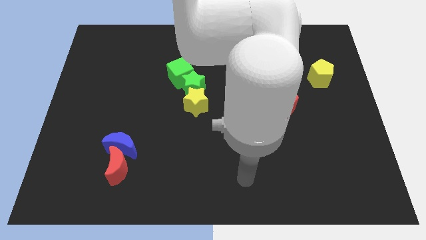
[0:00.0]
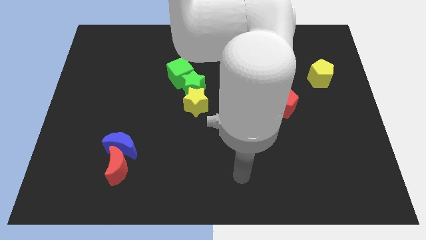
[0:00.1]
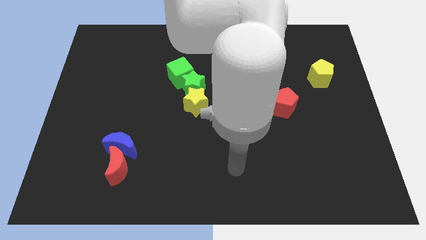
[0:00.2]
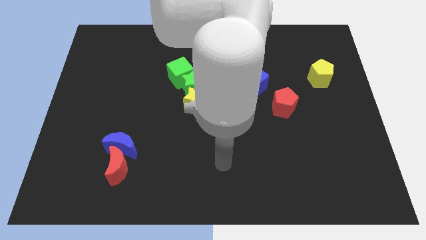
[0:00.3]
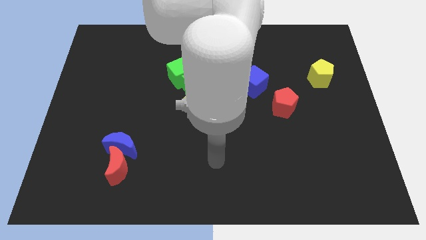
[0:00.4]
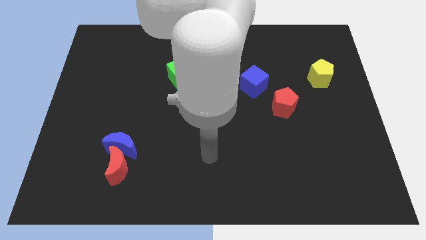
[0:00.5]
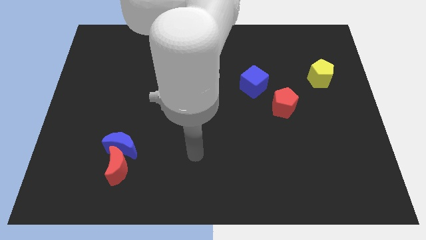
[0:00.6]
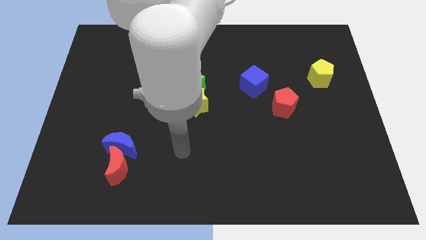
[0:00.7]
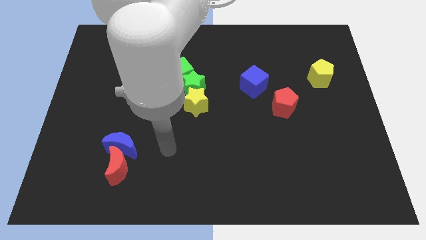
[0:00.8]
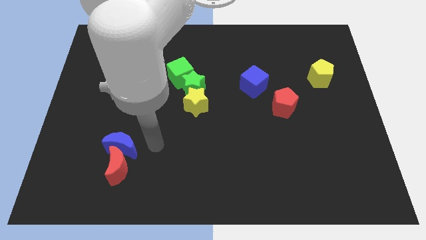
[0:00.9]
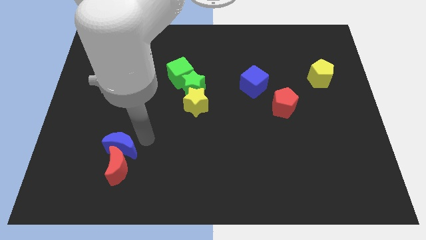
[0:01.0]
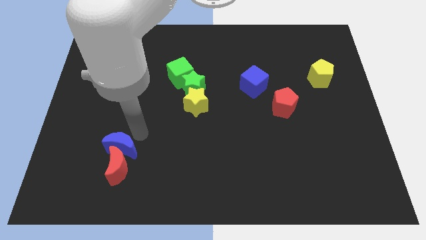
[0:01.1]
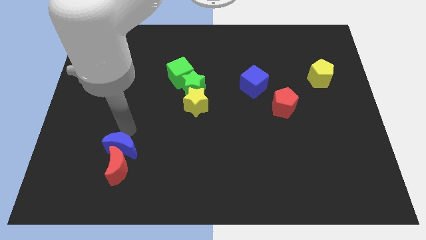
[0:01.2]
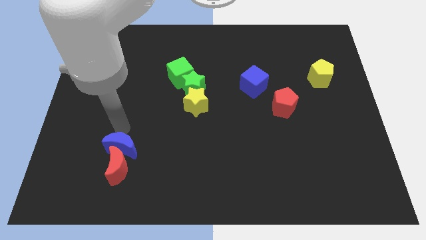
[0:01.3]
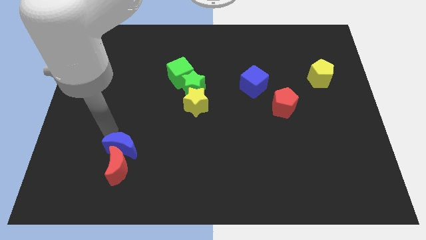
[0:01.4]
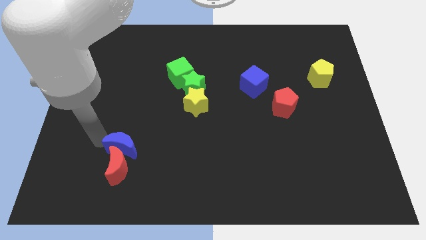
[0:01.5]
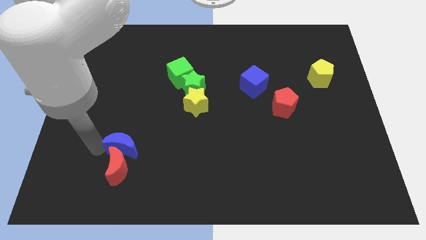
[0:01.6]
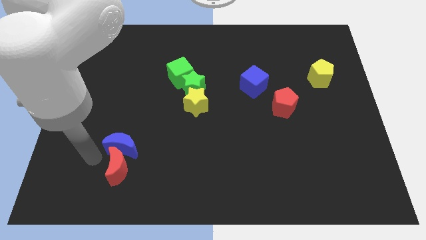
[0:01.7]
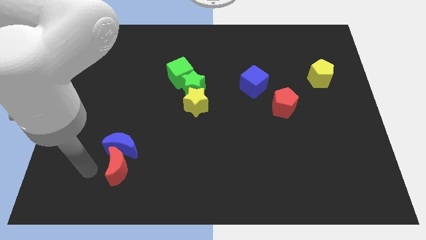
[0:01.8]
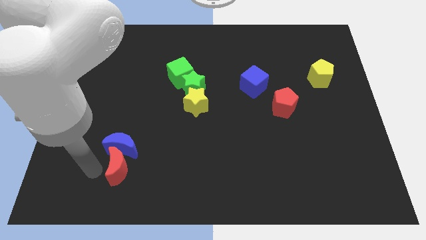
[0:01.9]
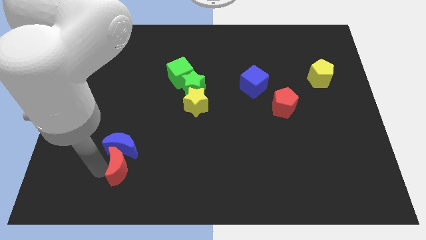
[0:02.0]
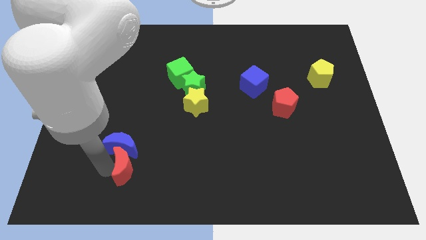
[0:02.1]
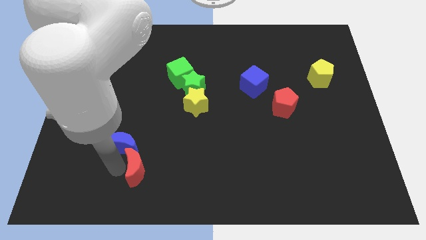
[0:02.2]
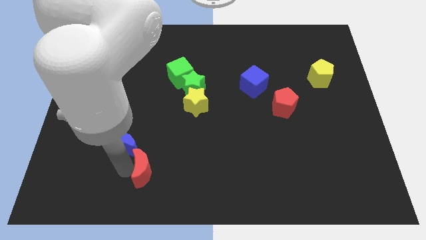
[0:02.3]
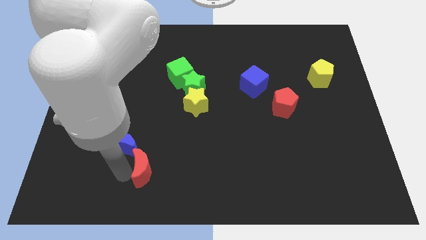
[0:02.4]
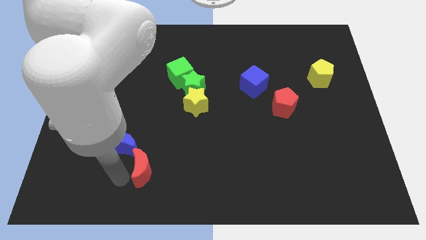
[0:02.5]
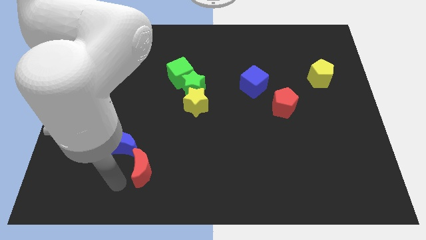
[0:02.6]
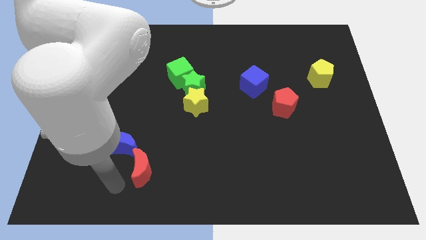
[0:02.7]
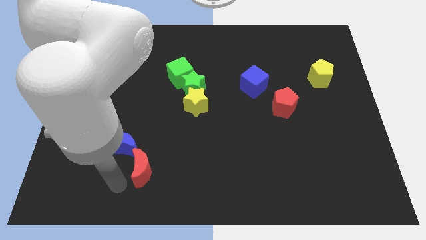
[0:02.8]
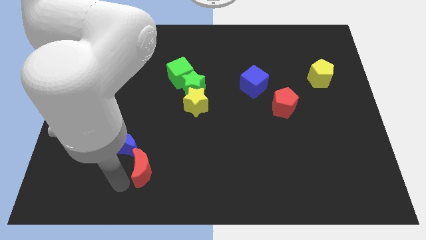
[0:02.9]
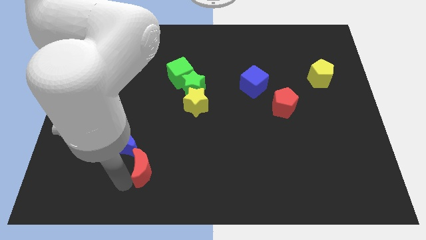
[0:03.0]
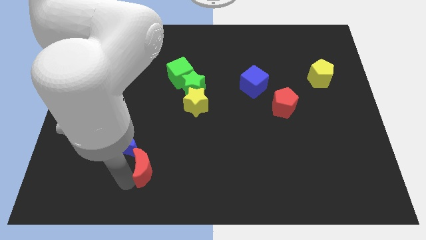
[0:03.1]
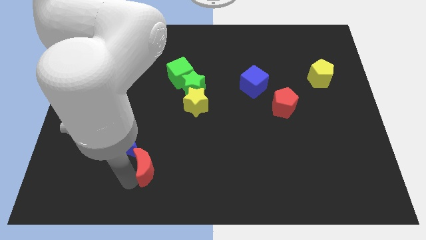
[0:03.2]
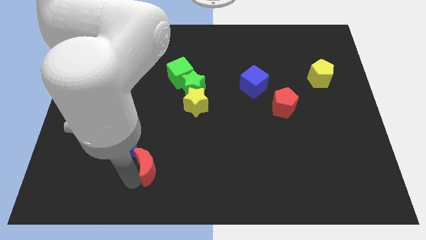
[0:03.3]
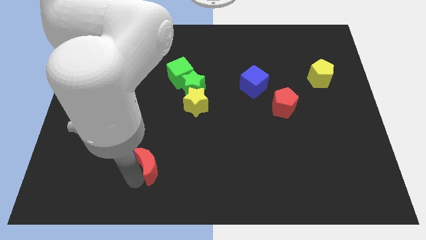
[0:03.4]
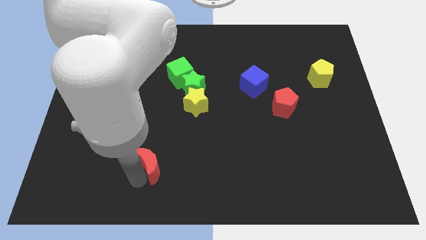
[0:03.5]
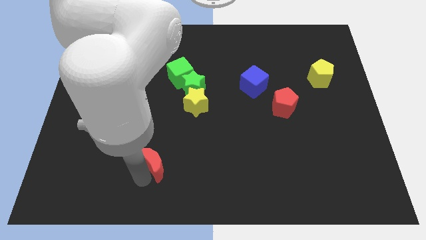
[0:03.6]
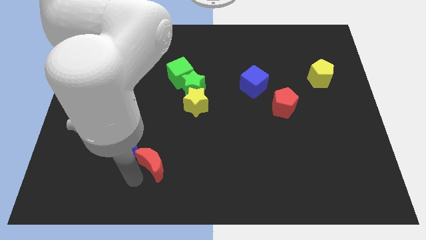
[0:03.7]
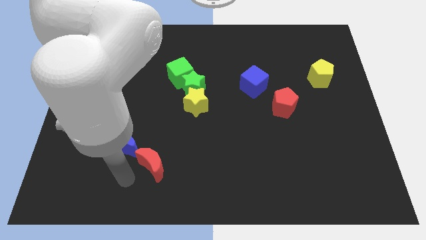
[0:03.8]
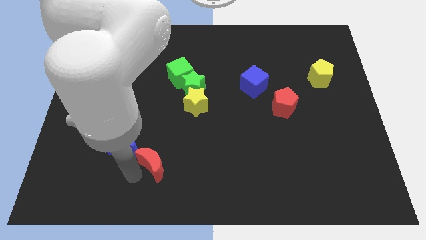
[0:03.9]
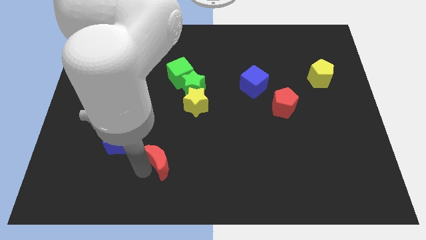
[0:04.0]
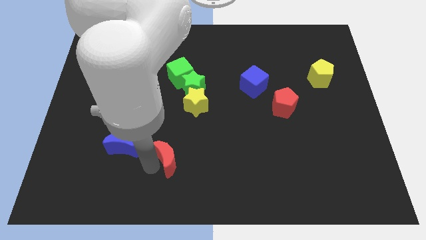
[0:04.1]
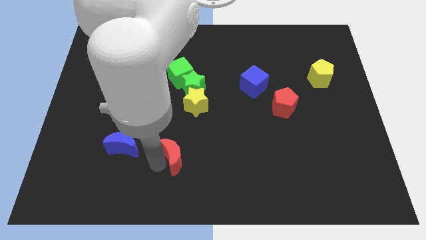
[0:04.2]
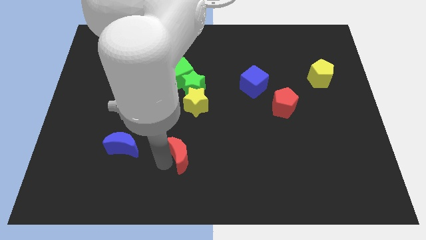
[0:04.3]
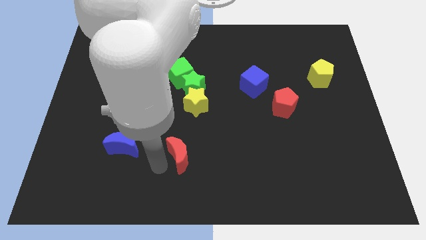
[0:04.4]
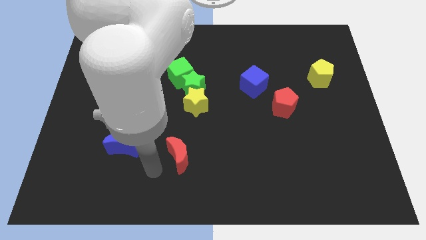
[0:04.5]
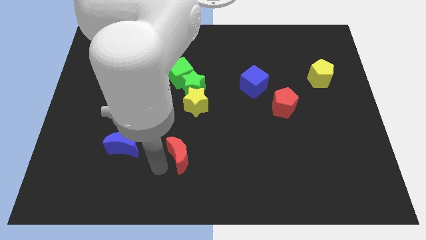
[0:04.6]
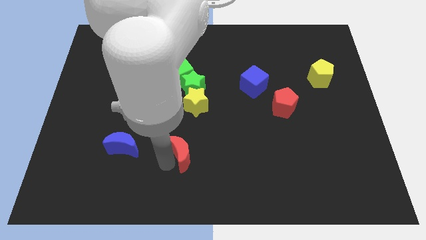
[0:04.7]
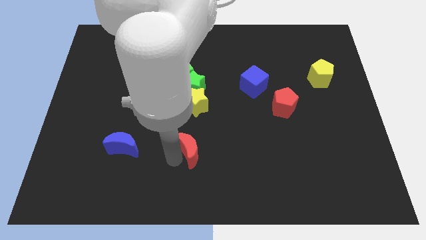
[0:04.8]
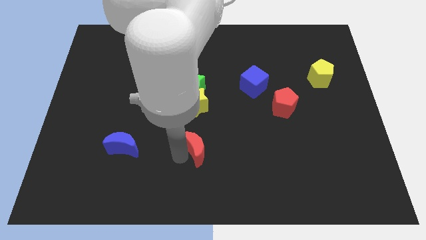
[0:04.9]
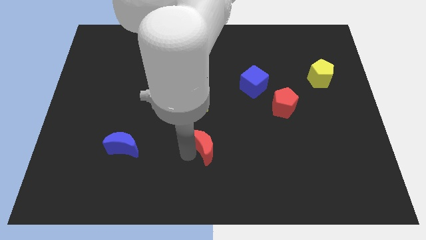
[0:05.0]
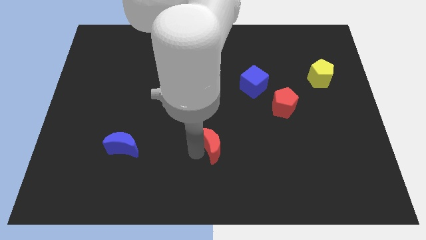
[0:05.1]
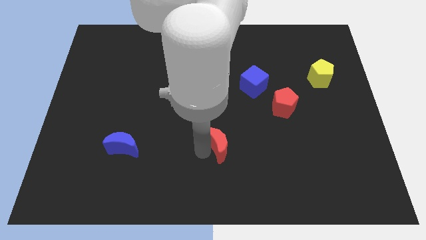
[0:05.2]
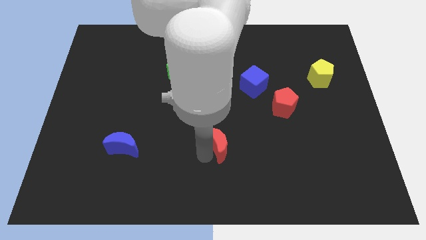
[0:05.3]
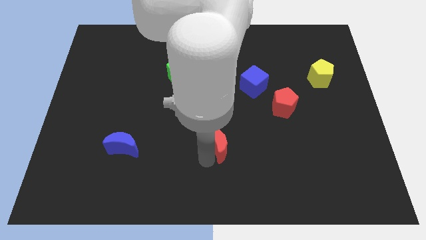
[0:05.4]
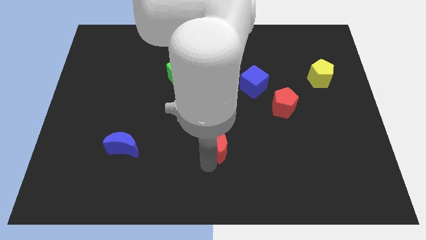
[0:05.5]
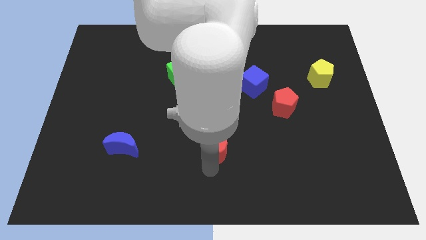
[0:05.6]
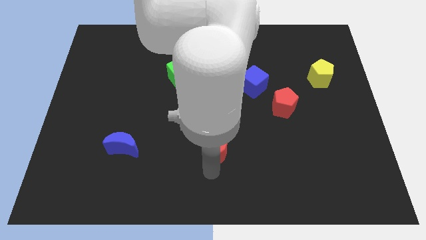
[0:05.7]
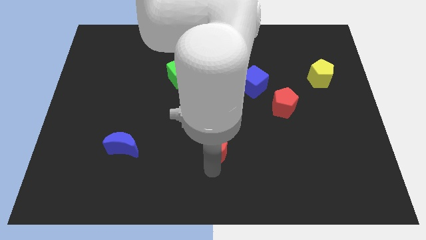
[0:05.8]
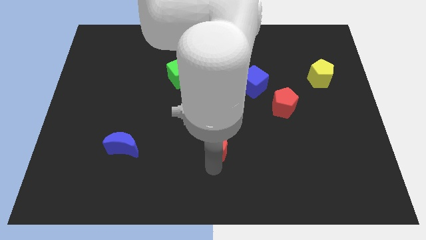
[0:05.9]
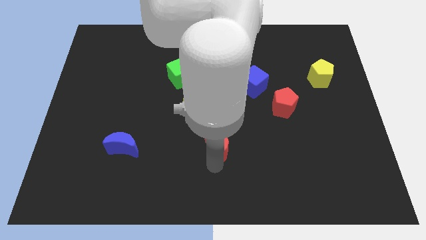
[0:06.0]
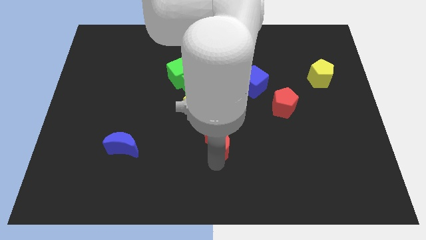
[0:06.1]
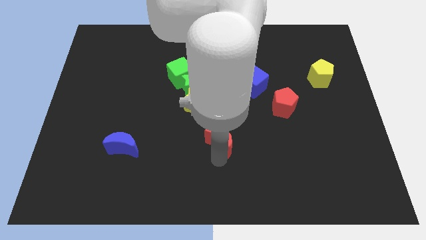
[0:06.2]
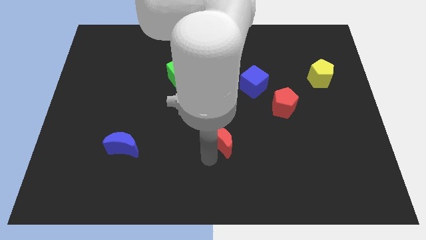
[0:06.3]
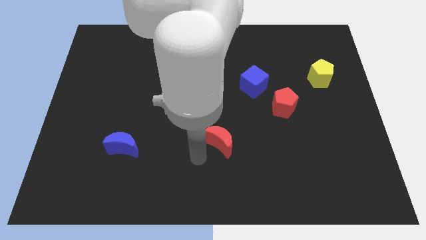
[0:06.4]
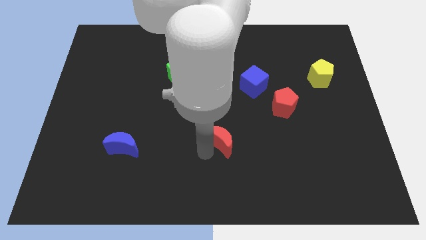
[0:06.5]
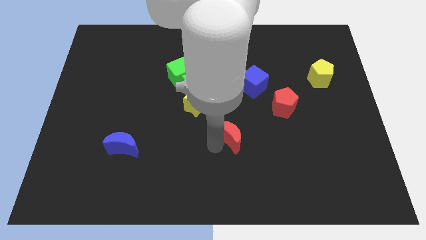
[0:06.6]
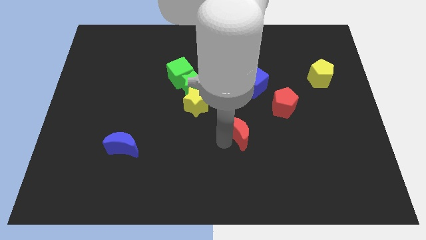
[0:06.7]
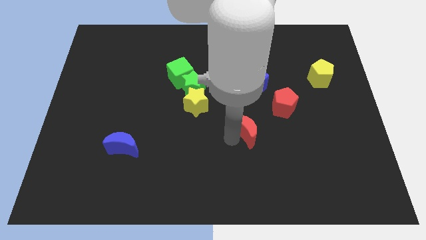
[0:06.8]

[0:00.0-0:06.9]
push the red moon below the blue cube
